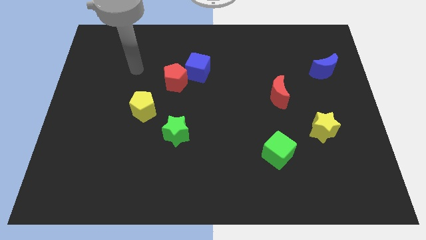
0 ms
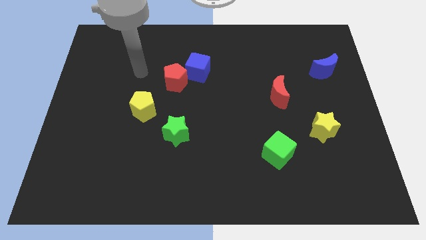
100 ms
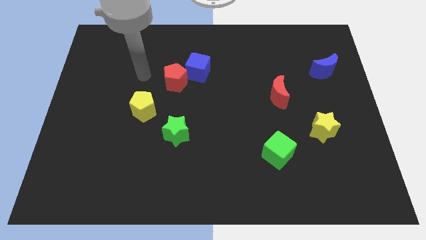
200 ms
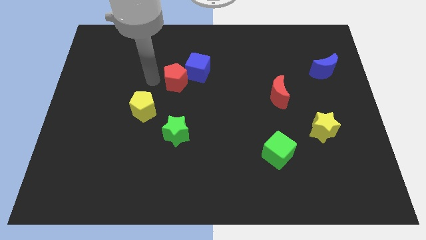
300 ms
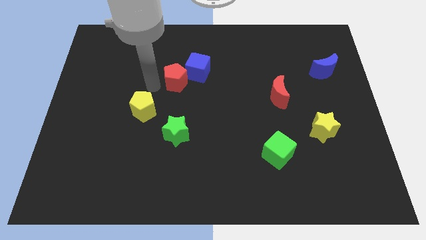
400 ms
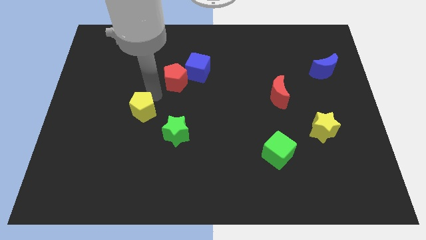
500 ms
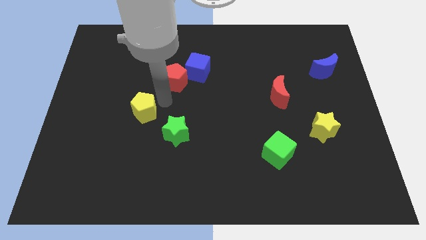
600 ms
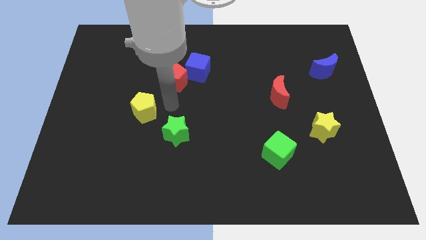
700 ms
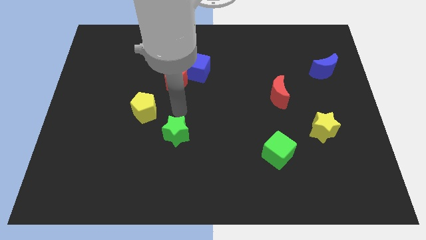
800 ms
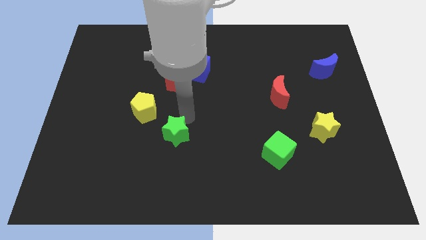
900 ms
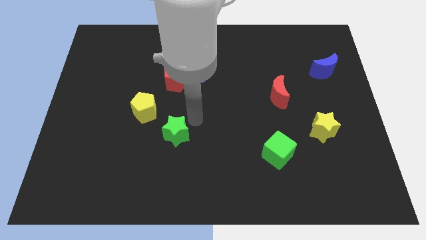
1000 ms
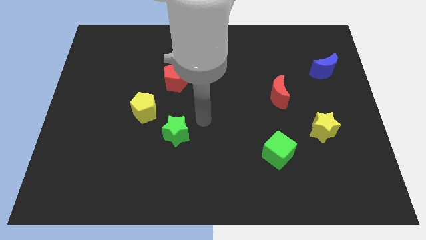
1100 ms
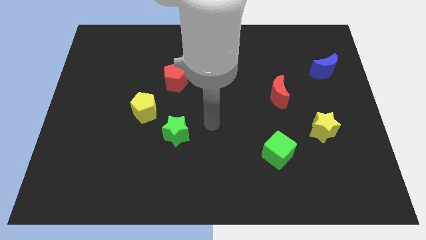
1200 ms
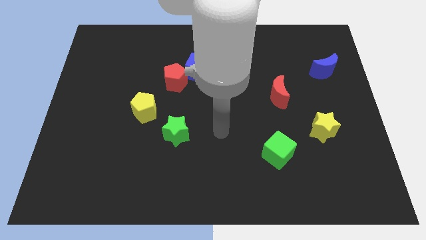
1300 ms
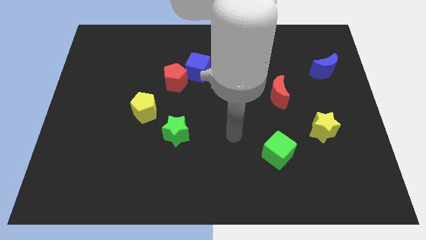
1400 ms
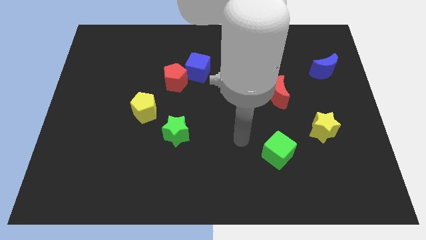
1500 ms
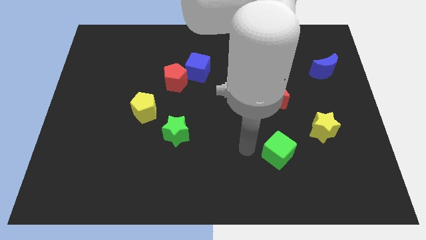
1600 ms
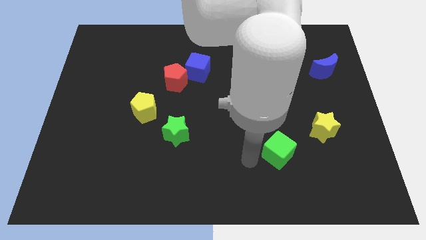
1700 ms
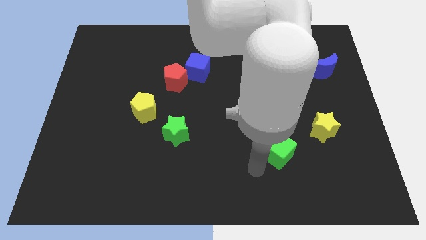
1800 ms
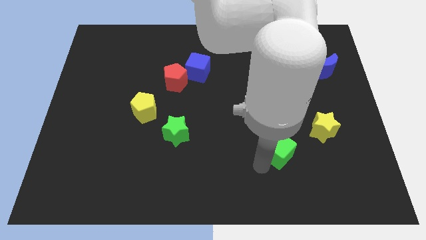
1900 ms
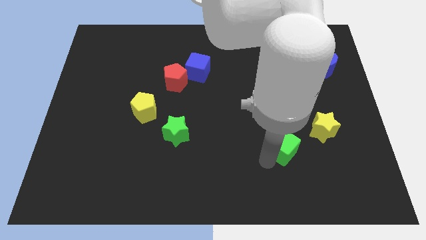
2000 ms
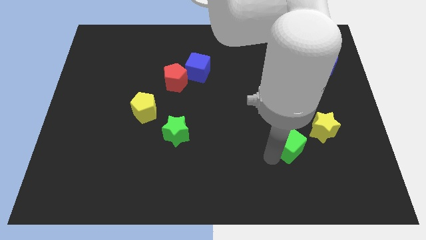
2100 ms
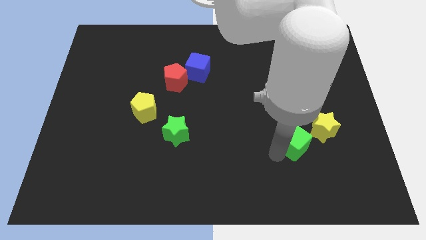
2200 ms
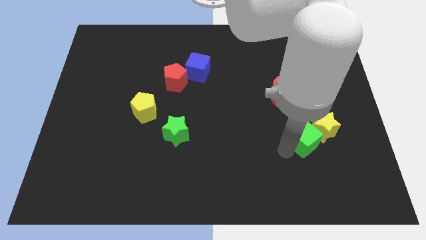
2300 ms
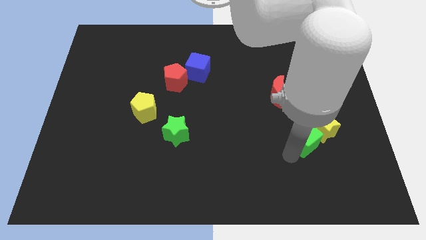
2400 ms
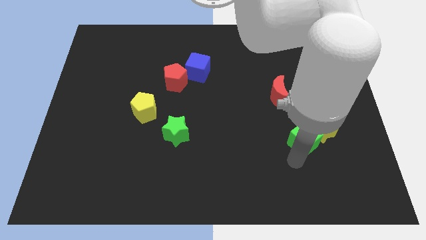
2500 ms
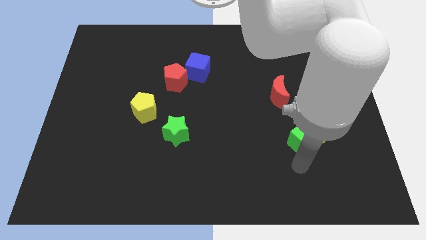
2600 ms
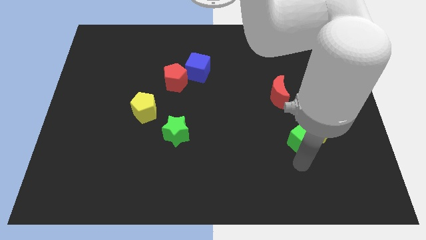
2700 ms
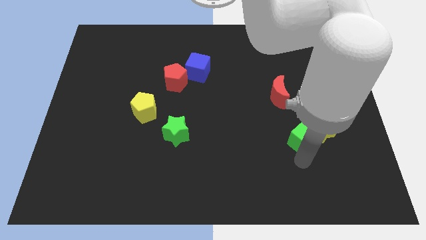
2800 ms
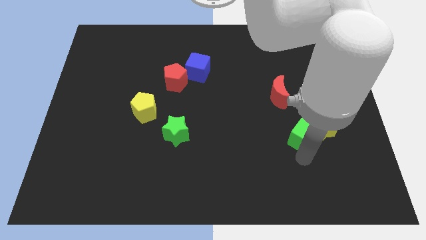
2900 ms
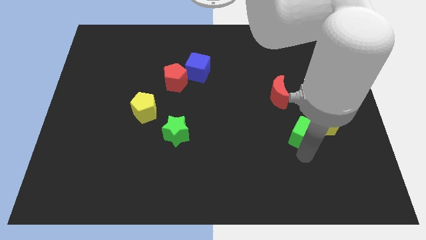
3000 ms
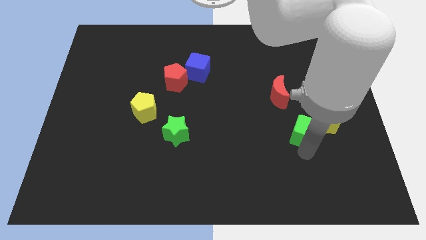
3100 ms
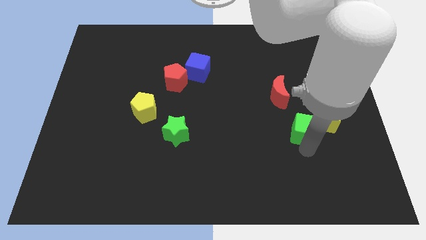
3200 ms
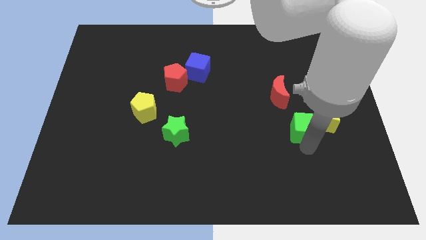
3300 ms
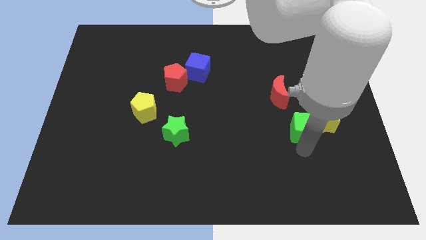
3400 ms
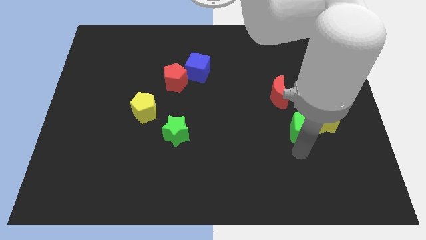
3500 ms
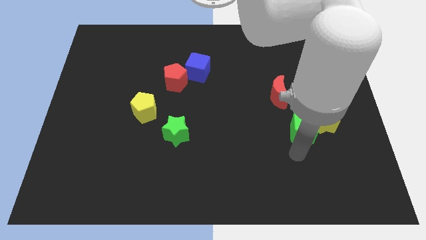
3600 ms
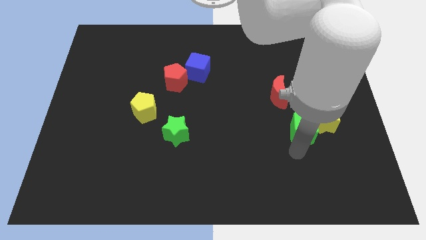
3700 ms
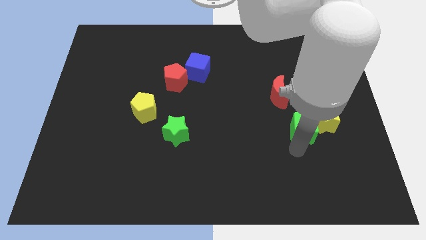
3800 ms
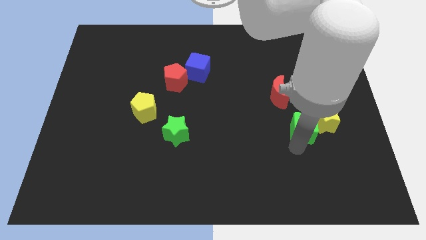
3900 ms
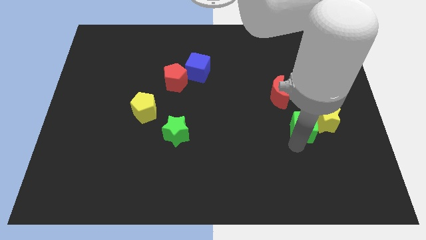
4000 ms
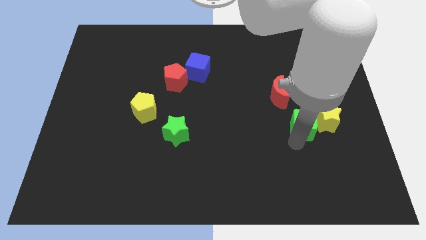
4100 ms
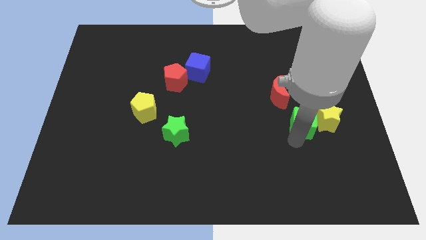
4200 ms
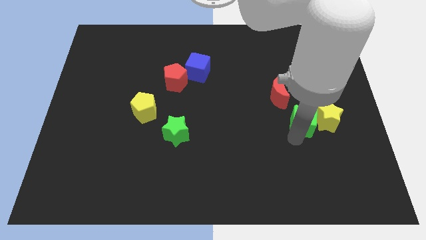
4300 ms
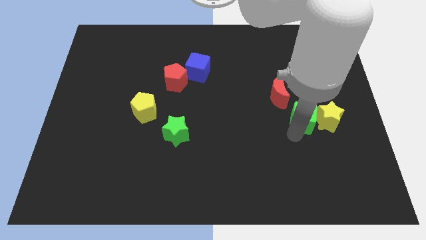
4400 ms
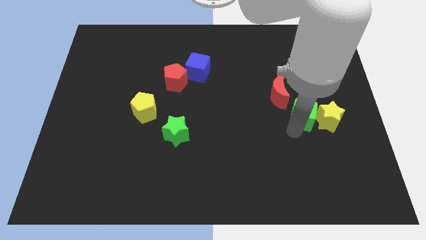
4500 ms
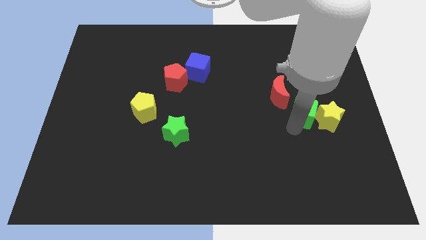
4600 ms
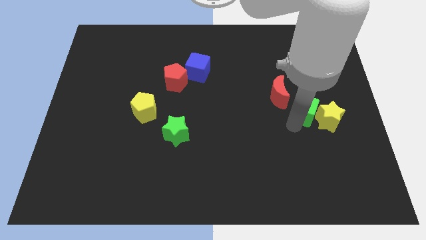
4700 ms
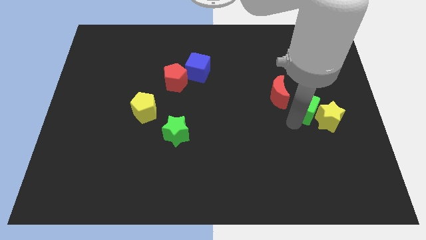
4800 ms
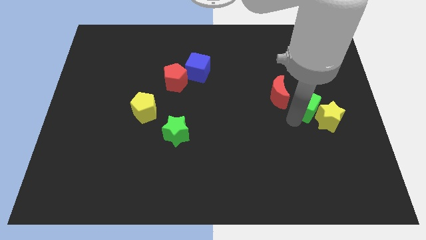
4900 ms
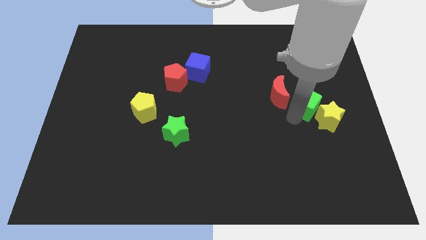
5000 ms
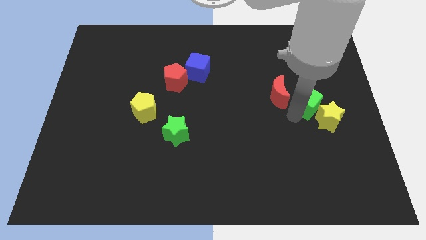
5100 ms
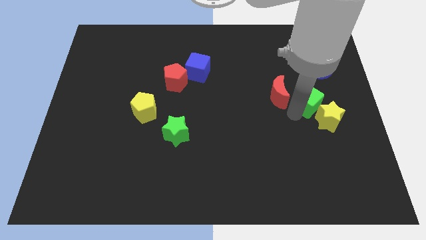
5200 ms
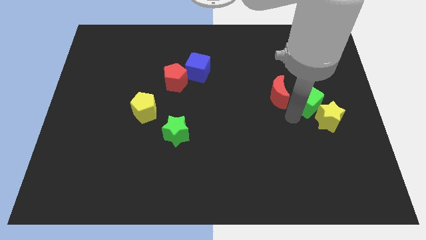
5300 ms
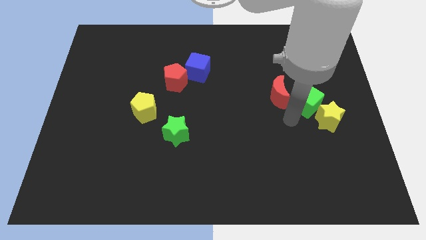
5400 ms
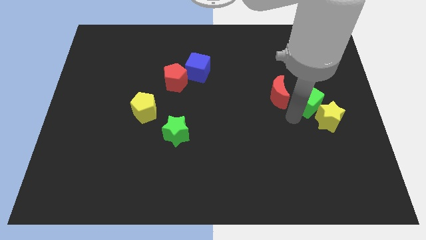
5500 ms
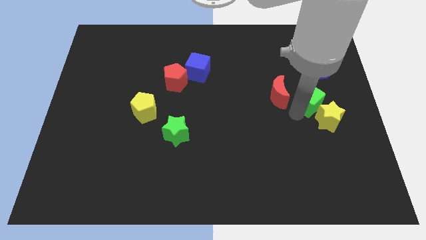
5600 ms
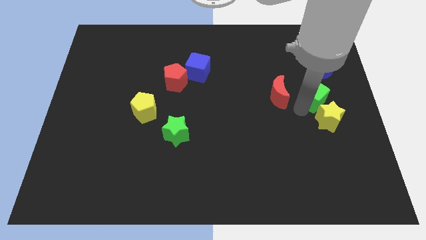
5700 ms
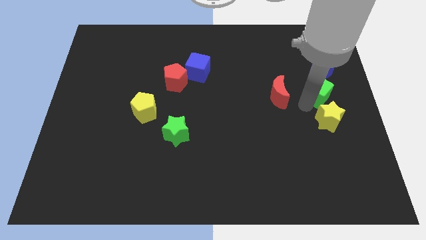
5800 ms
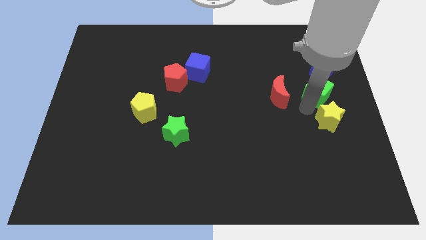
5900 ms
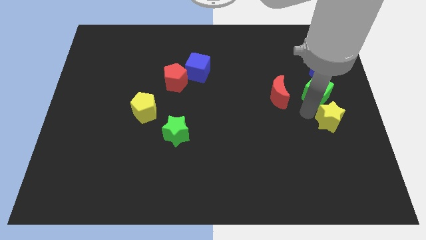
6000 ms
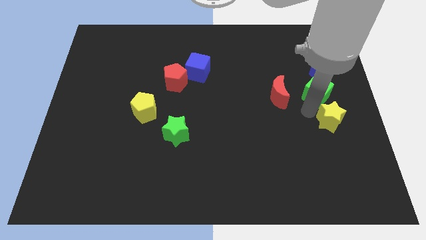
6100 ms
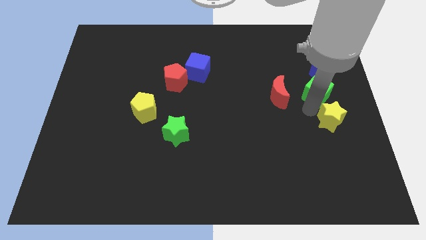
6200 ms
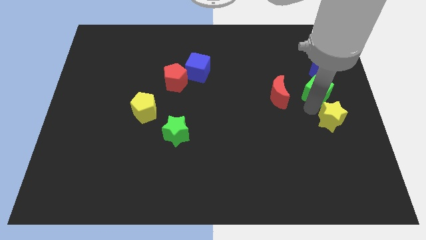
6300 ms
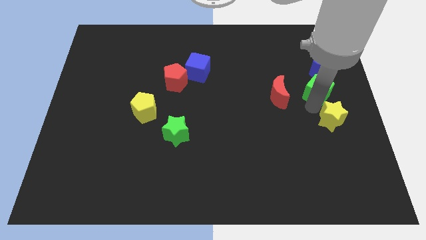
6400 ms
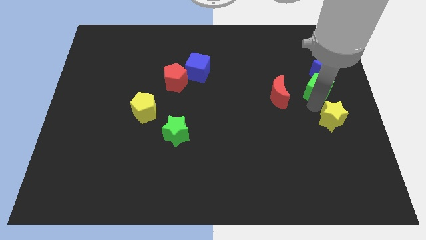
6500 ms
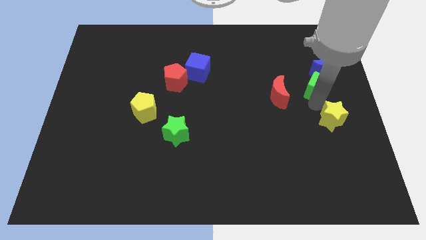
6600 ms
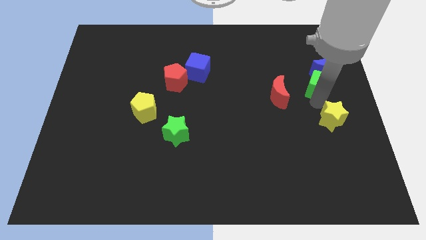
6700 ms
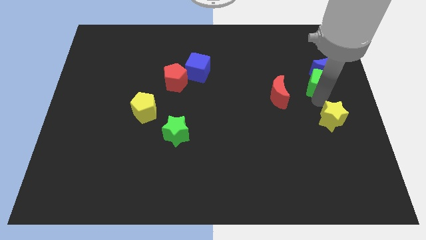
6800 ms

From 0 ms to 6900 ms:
move the green cube towards the blue moon
